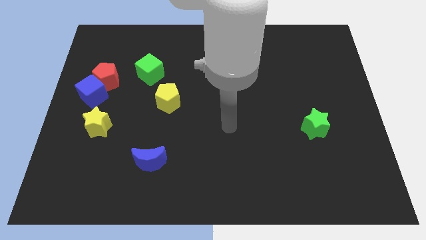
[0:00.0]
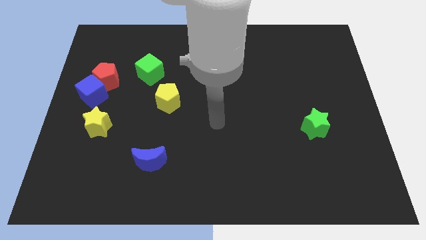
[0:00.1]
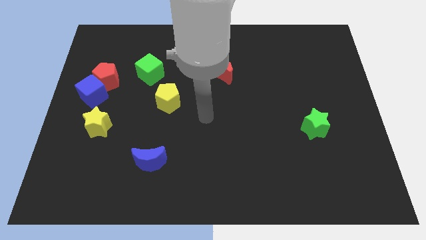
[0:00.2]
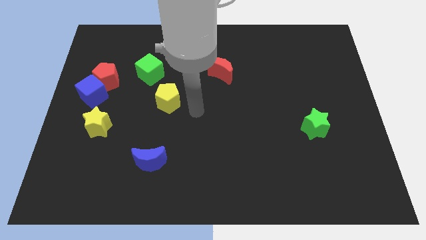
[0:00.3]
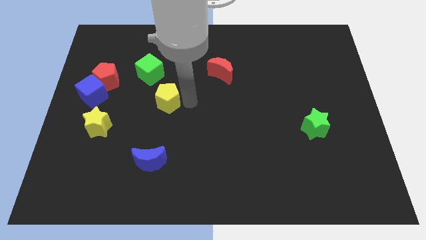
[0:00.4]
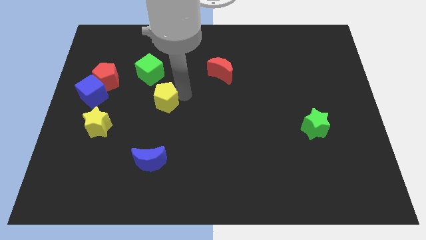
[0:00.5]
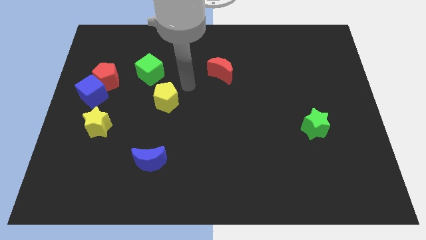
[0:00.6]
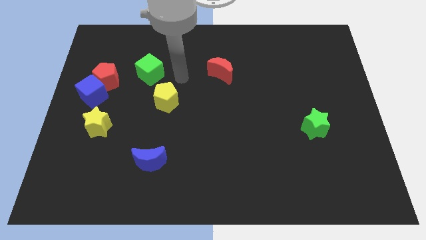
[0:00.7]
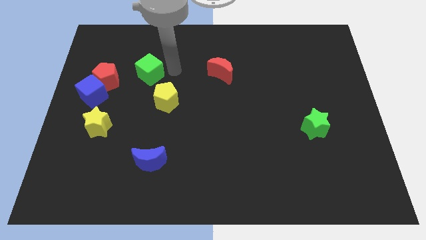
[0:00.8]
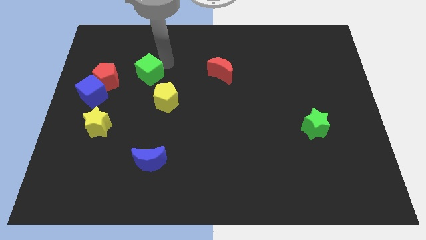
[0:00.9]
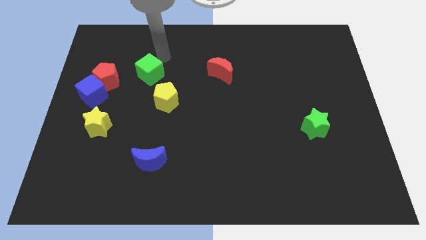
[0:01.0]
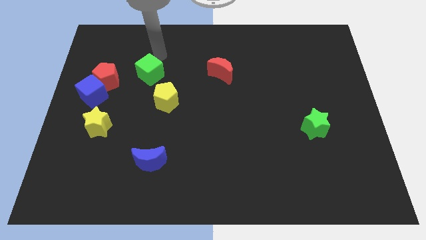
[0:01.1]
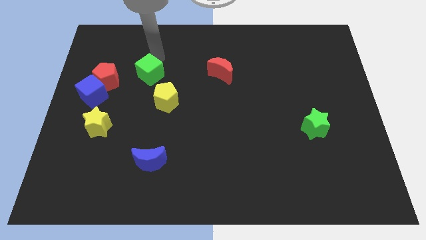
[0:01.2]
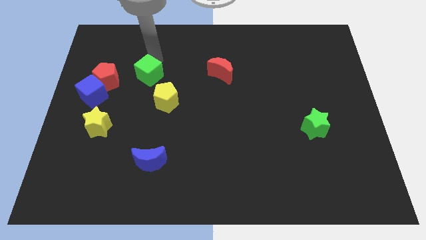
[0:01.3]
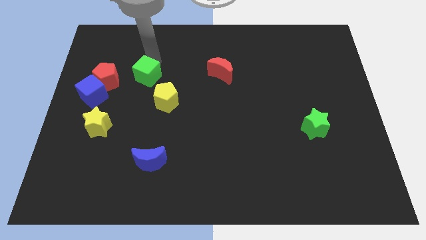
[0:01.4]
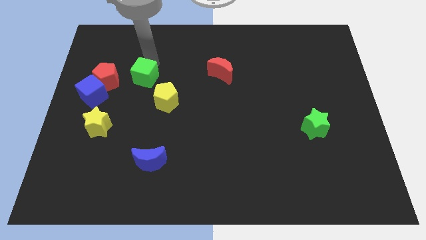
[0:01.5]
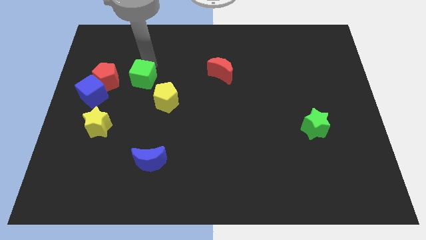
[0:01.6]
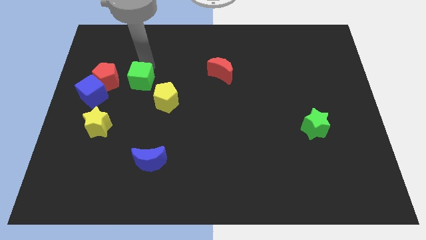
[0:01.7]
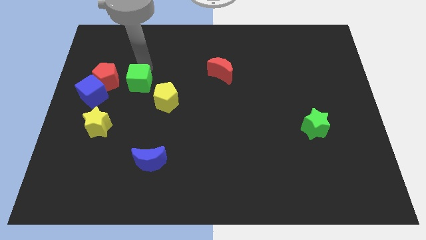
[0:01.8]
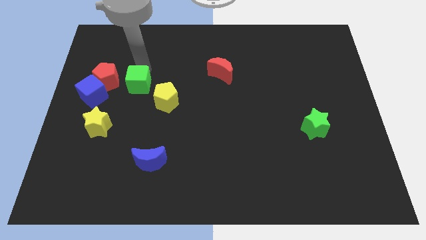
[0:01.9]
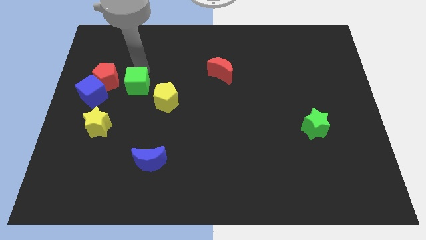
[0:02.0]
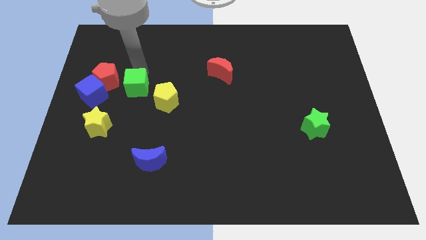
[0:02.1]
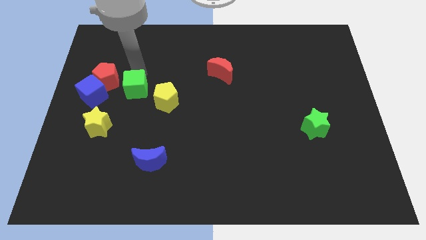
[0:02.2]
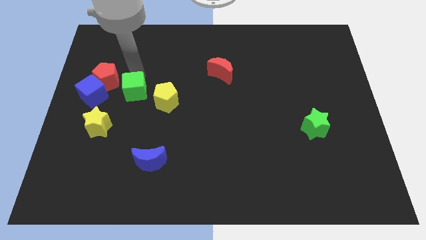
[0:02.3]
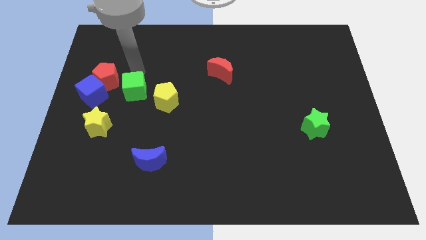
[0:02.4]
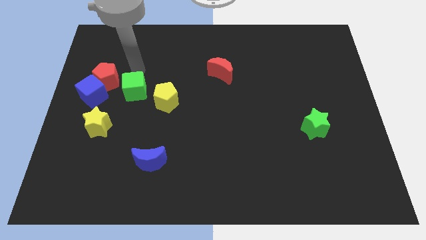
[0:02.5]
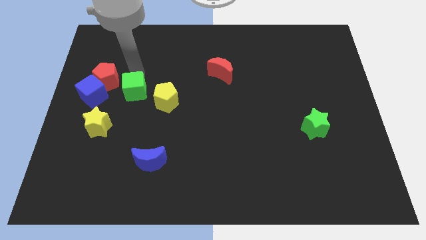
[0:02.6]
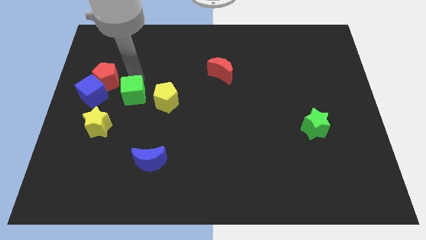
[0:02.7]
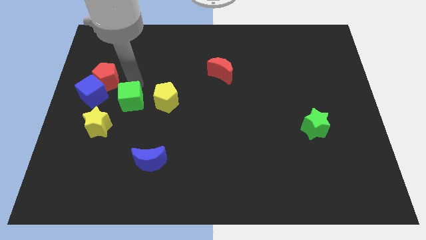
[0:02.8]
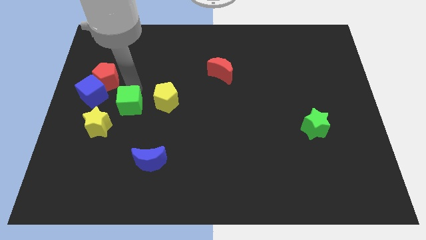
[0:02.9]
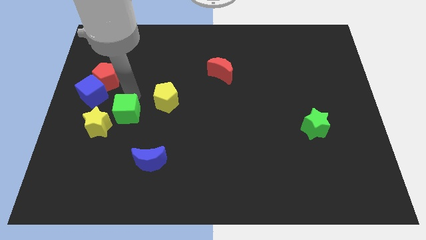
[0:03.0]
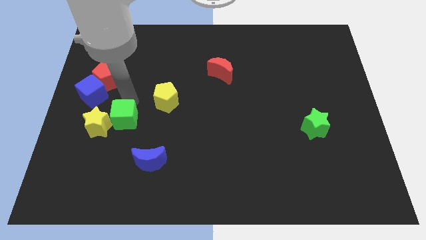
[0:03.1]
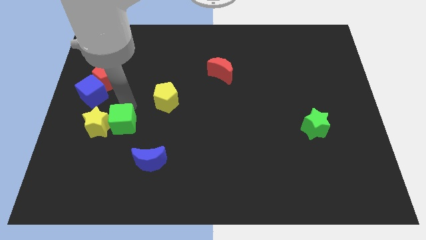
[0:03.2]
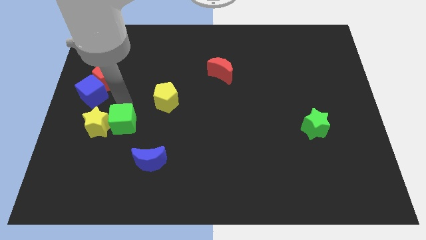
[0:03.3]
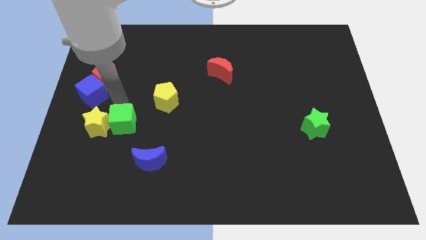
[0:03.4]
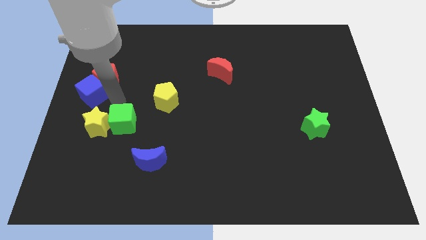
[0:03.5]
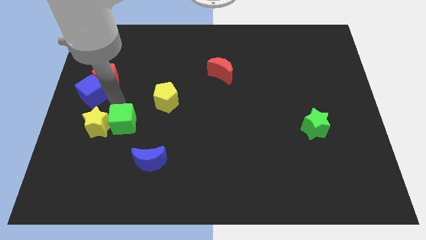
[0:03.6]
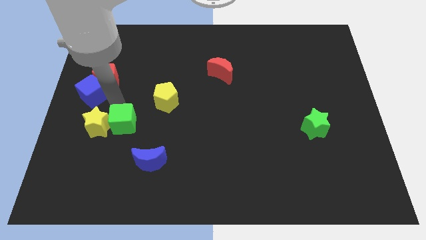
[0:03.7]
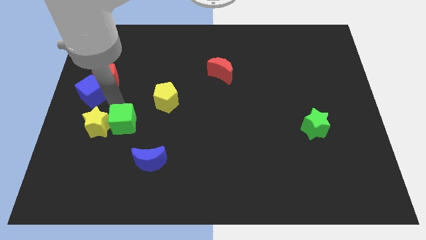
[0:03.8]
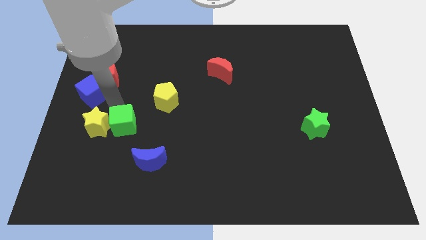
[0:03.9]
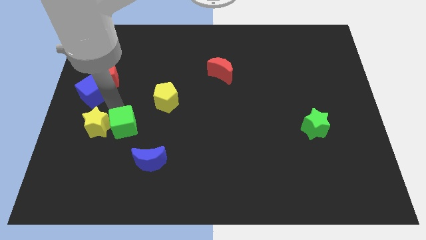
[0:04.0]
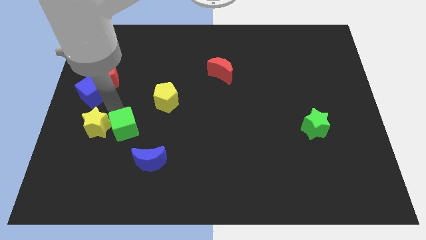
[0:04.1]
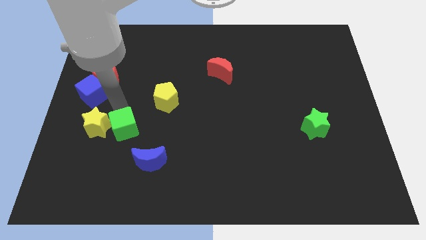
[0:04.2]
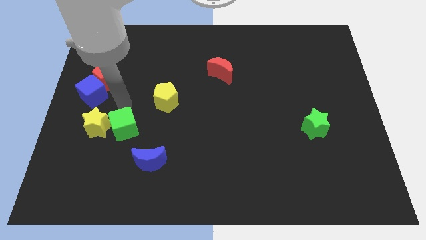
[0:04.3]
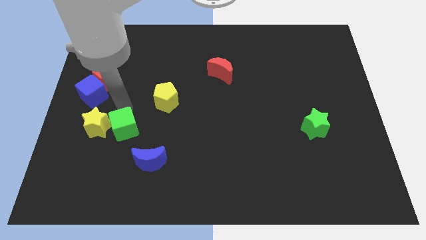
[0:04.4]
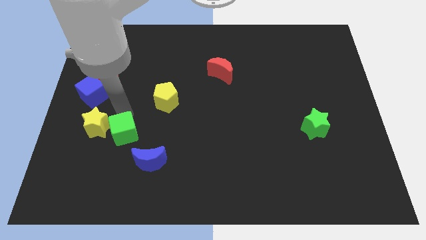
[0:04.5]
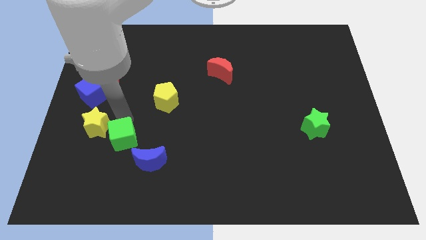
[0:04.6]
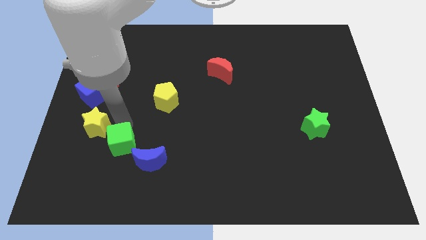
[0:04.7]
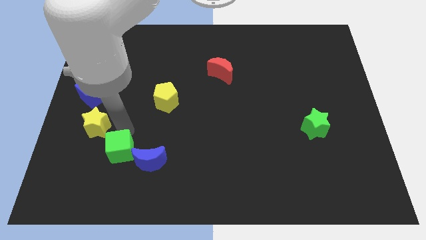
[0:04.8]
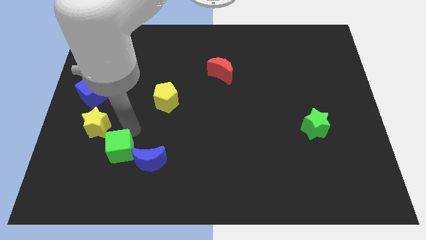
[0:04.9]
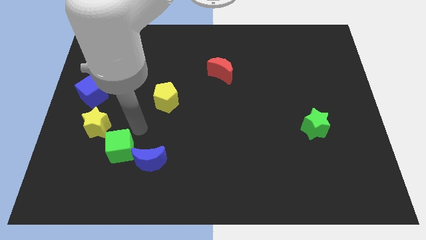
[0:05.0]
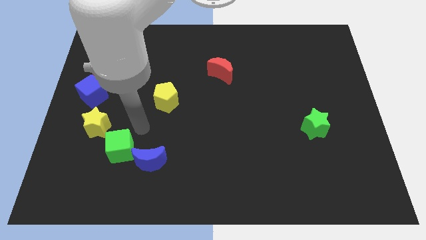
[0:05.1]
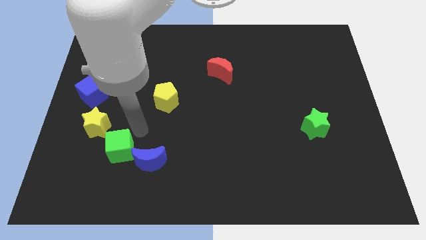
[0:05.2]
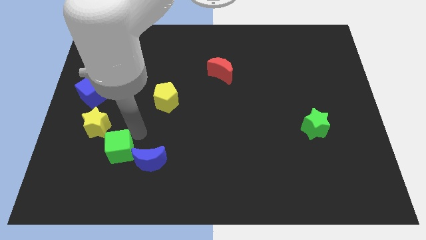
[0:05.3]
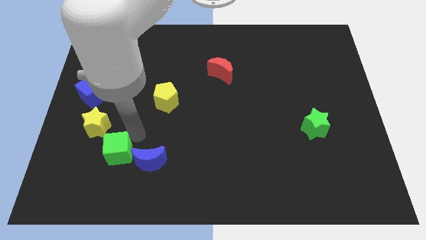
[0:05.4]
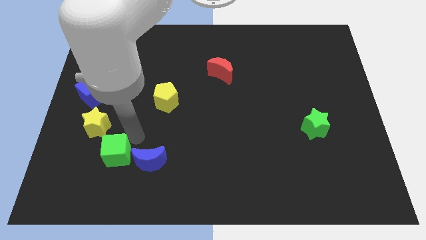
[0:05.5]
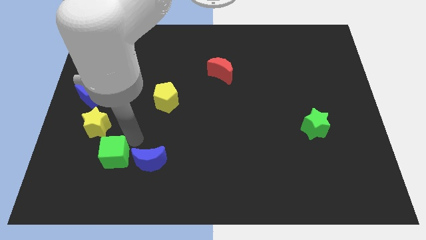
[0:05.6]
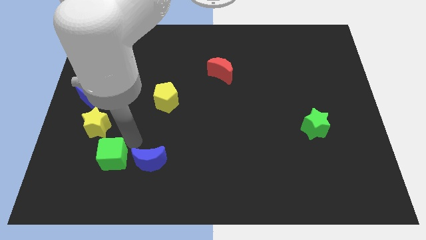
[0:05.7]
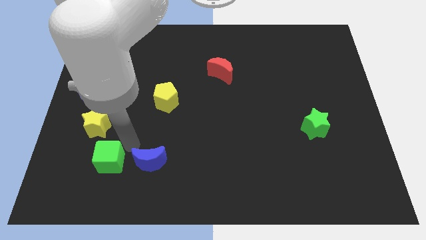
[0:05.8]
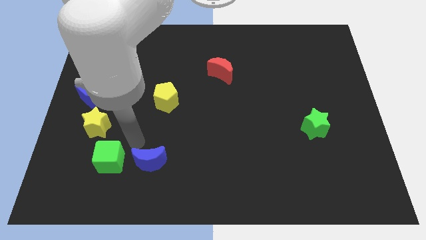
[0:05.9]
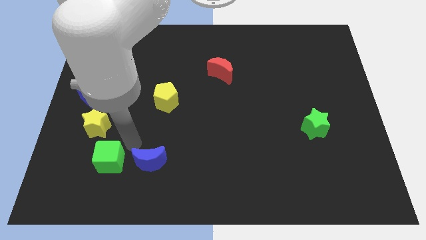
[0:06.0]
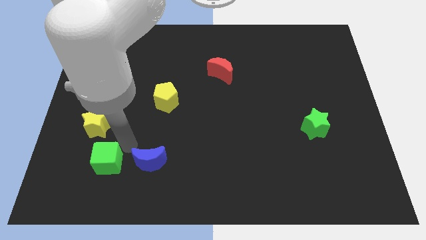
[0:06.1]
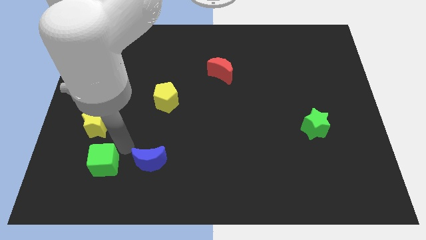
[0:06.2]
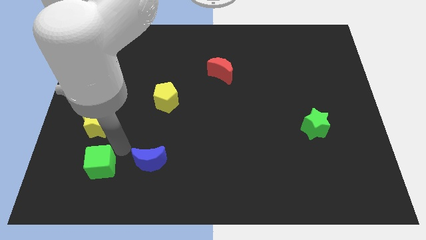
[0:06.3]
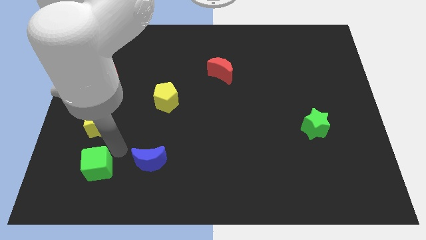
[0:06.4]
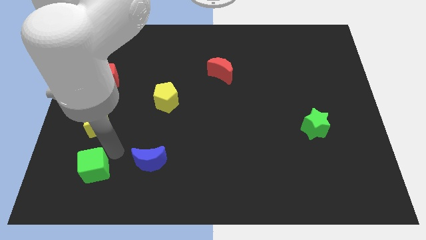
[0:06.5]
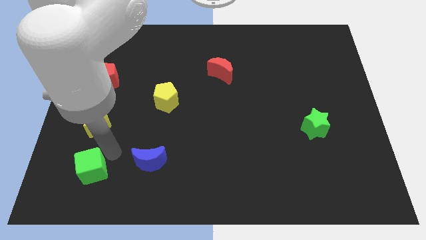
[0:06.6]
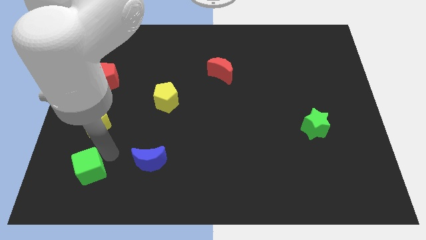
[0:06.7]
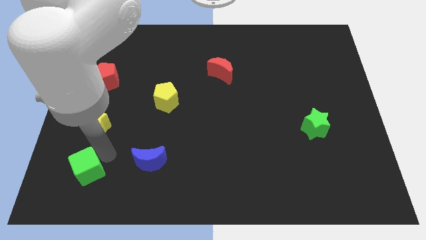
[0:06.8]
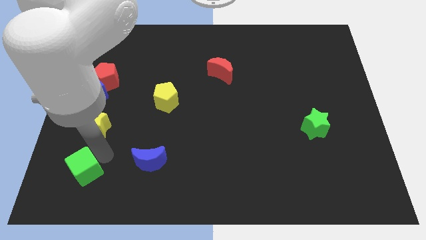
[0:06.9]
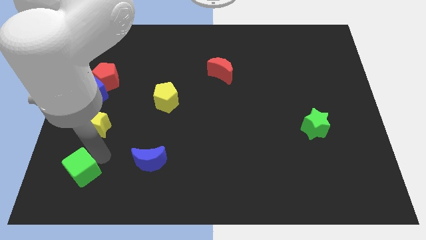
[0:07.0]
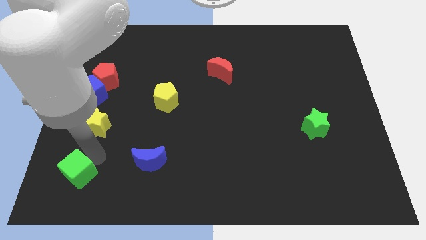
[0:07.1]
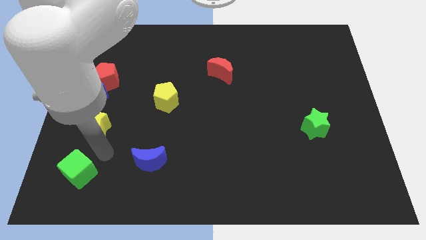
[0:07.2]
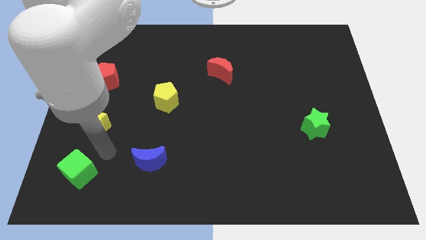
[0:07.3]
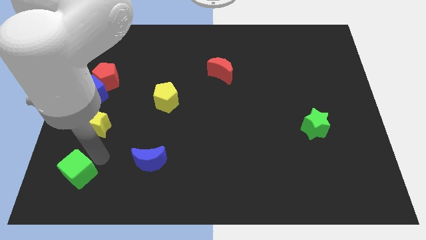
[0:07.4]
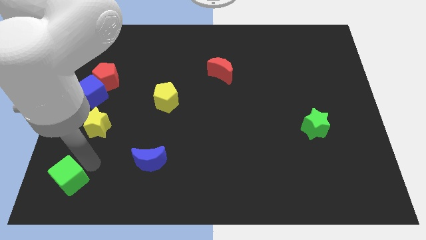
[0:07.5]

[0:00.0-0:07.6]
move the green cube to the bottom left corner
